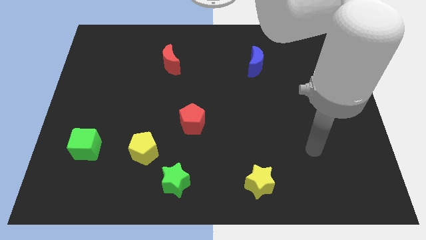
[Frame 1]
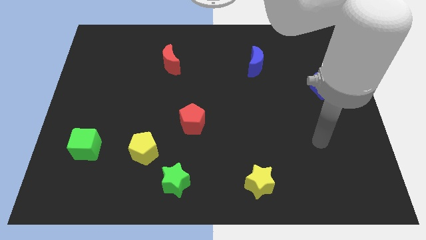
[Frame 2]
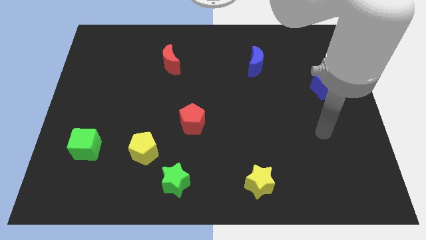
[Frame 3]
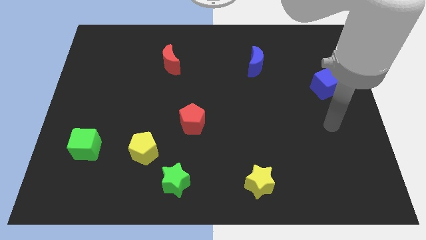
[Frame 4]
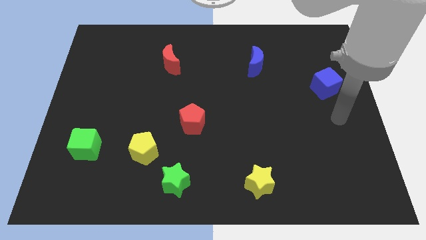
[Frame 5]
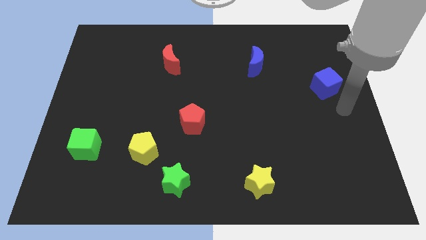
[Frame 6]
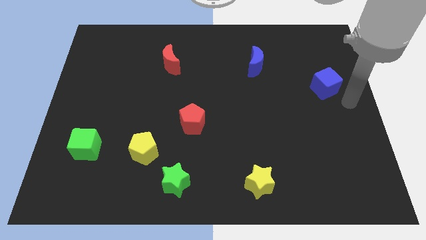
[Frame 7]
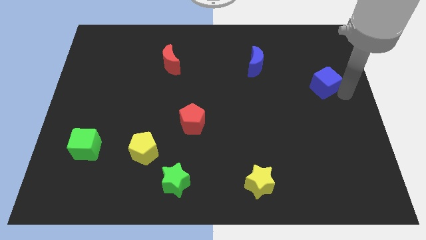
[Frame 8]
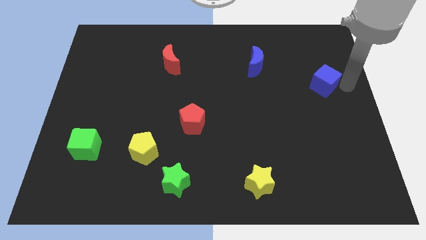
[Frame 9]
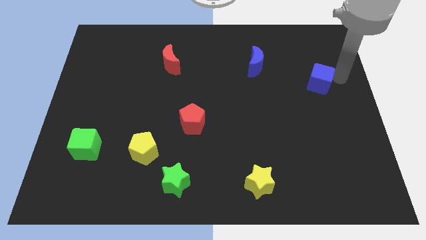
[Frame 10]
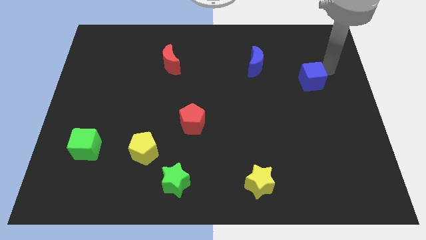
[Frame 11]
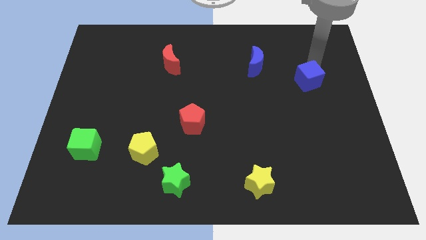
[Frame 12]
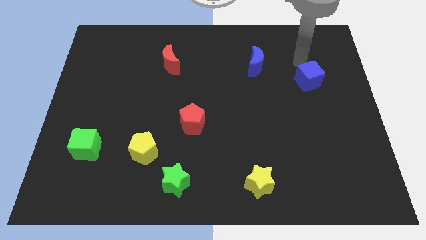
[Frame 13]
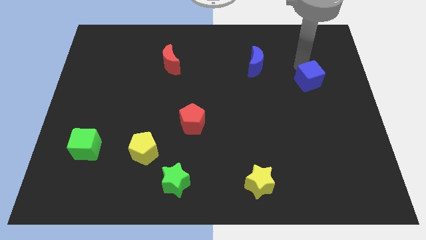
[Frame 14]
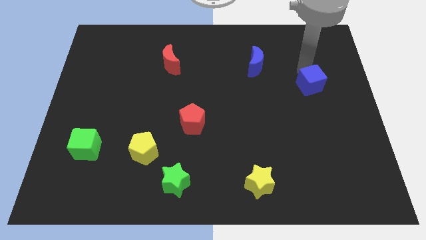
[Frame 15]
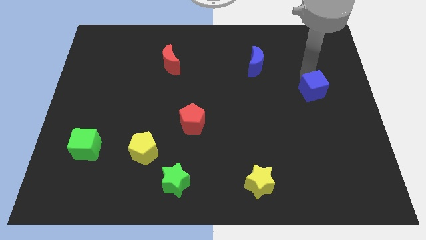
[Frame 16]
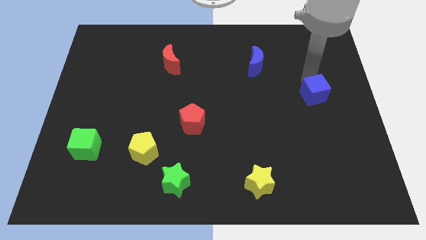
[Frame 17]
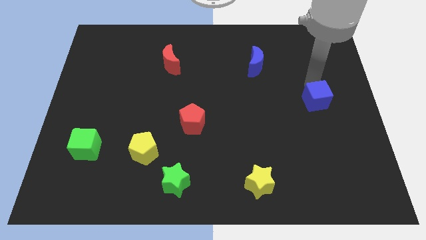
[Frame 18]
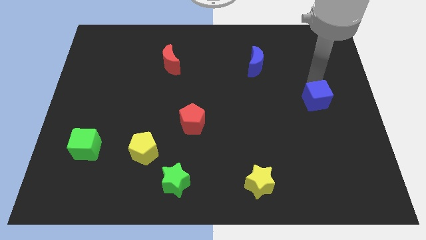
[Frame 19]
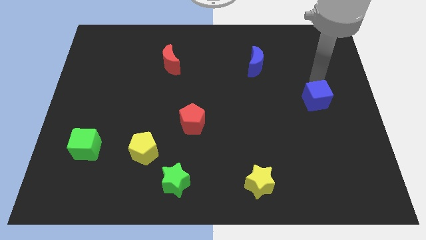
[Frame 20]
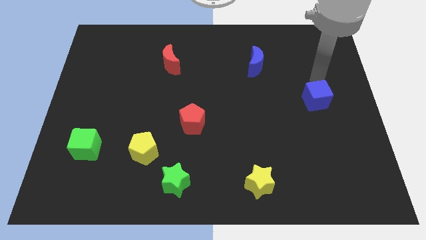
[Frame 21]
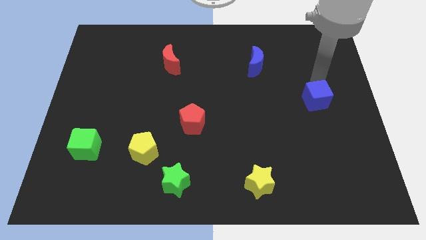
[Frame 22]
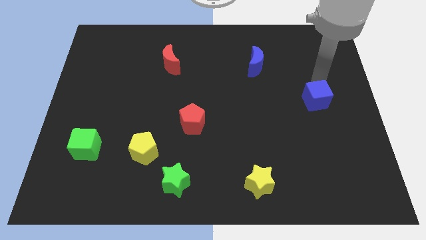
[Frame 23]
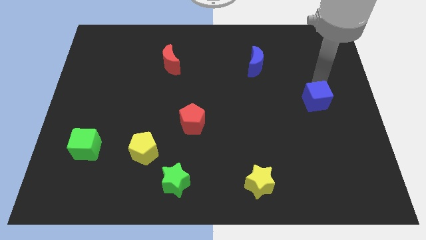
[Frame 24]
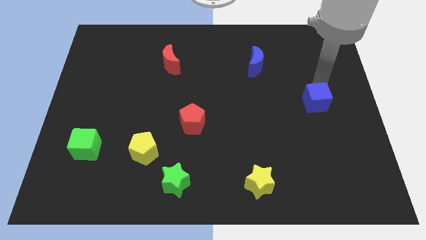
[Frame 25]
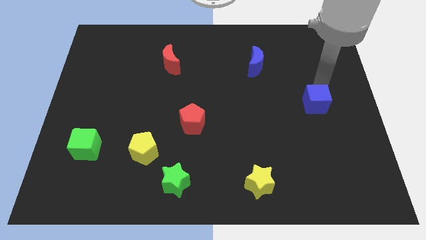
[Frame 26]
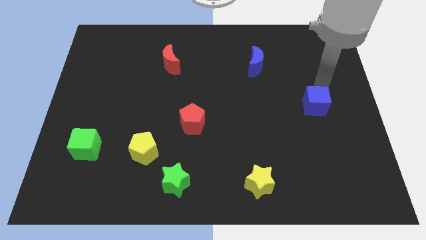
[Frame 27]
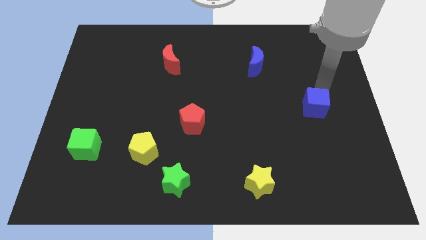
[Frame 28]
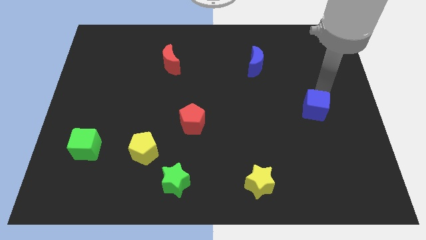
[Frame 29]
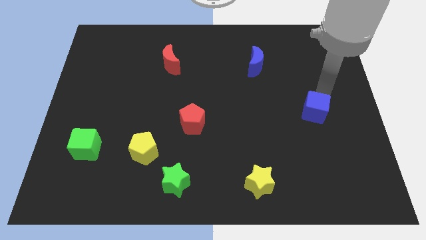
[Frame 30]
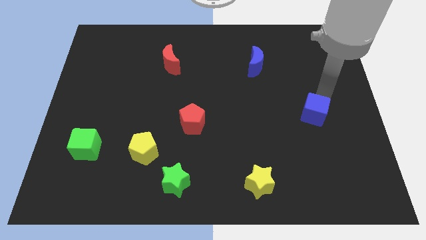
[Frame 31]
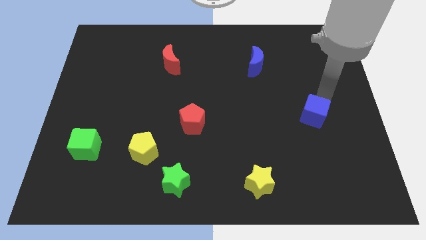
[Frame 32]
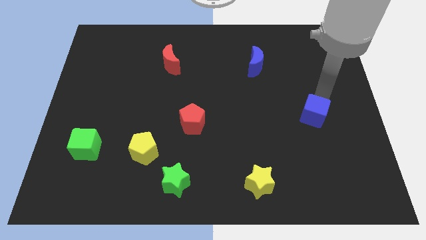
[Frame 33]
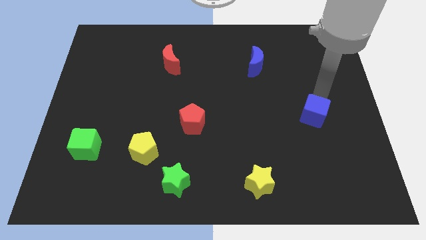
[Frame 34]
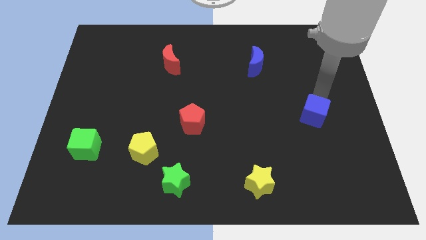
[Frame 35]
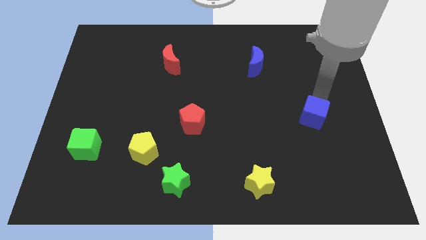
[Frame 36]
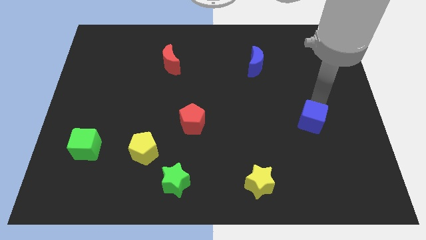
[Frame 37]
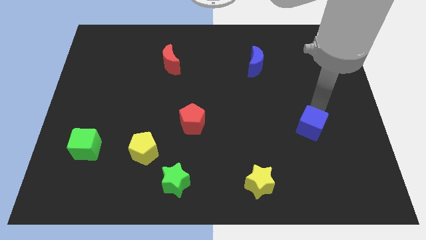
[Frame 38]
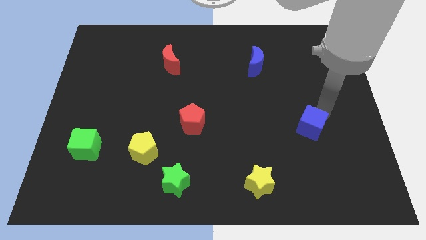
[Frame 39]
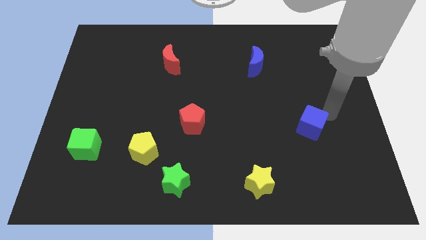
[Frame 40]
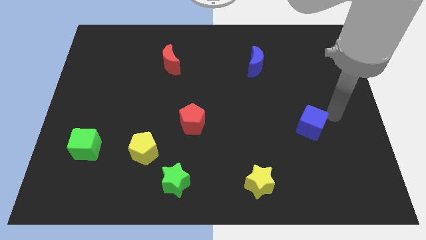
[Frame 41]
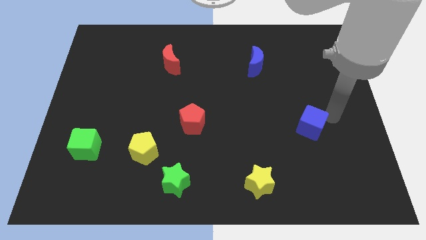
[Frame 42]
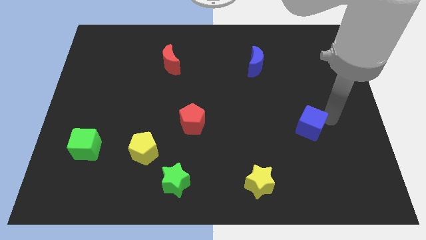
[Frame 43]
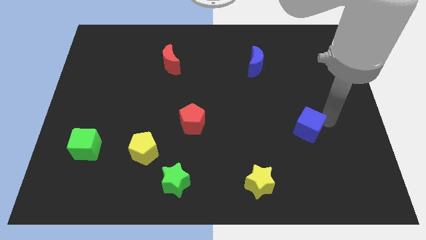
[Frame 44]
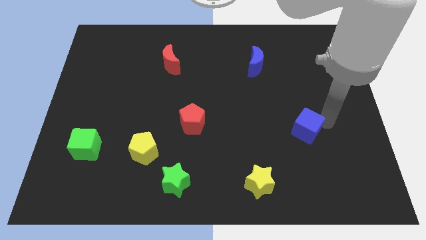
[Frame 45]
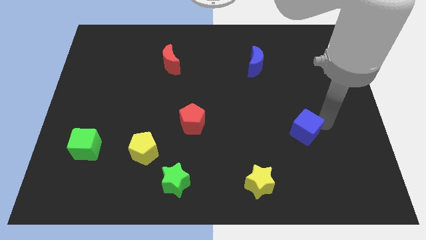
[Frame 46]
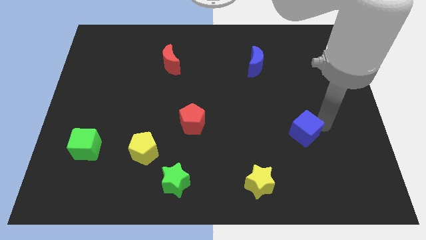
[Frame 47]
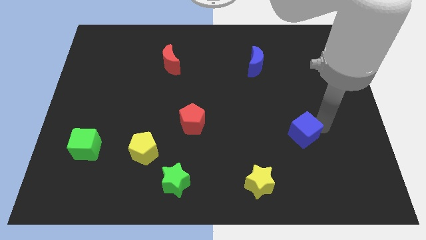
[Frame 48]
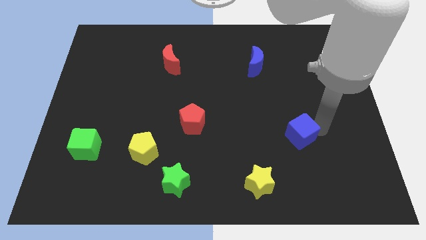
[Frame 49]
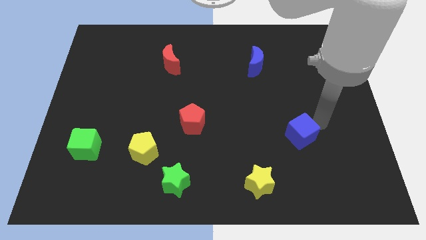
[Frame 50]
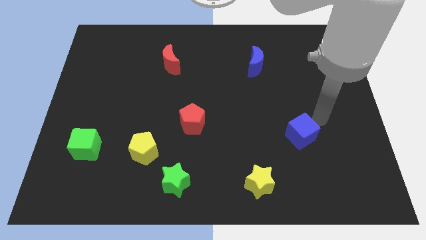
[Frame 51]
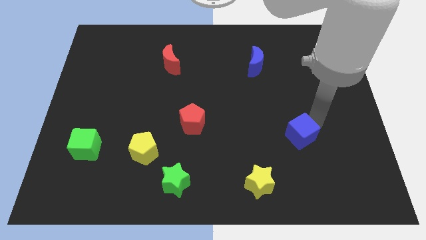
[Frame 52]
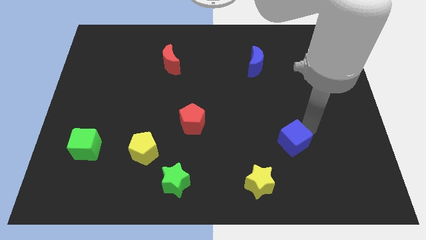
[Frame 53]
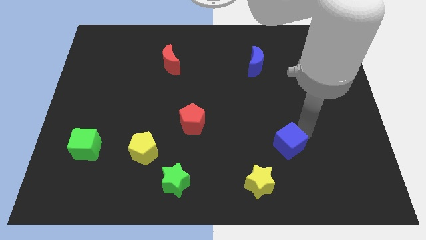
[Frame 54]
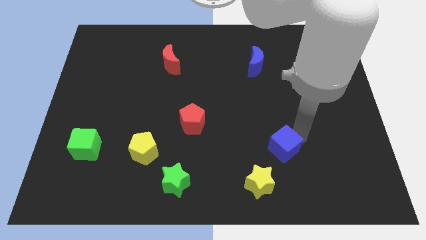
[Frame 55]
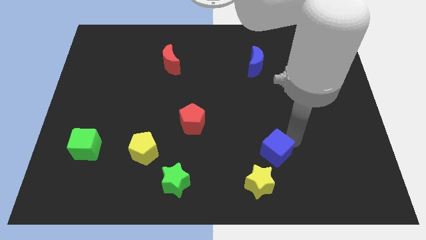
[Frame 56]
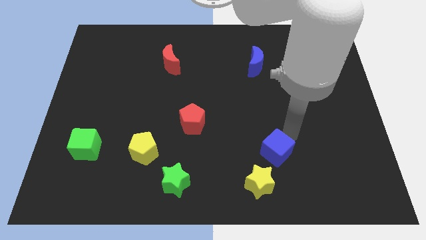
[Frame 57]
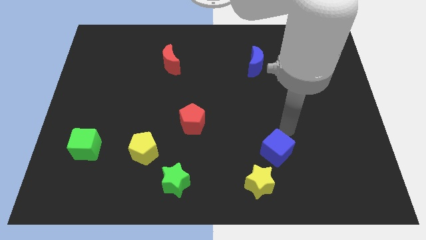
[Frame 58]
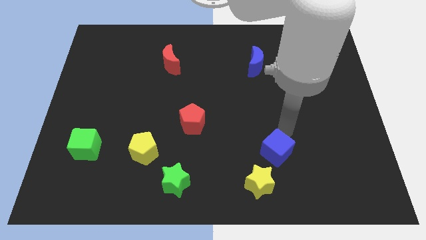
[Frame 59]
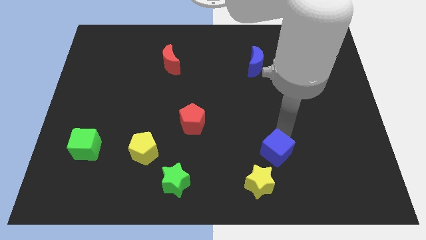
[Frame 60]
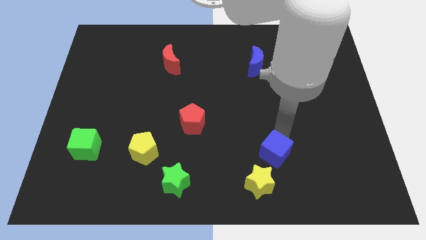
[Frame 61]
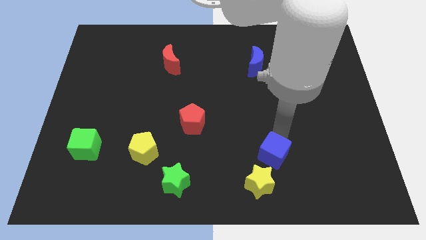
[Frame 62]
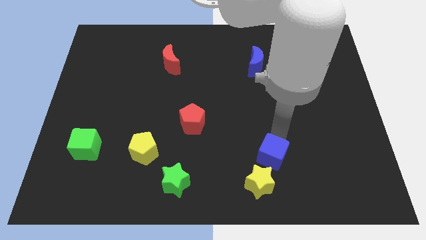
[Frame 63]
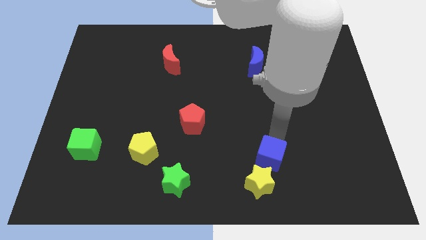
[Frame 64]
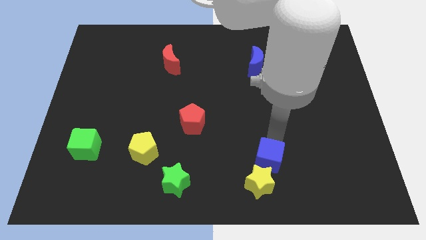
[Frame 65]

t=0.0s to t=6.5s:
push the blue cube close to the yellow star

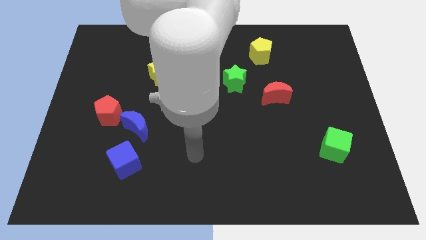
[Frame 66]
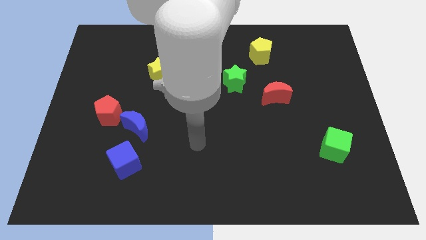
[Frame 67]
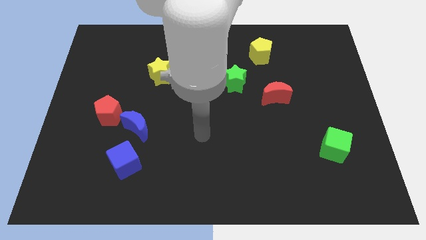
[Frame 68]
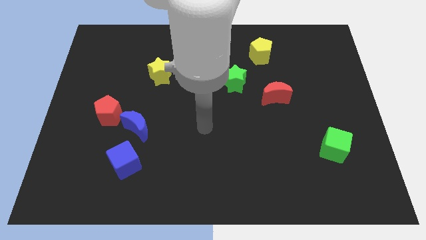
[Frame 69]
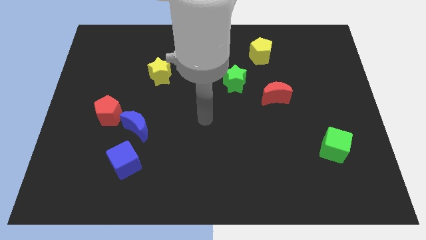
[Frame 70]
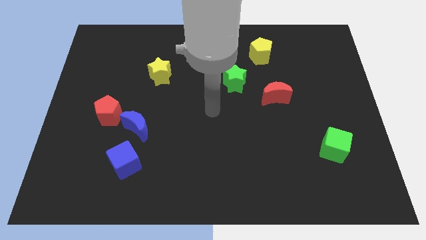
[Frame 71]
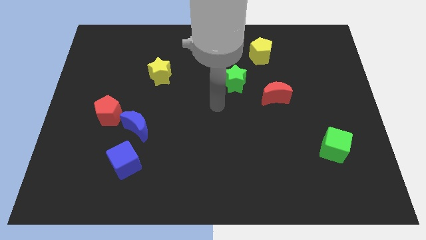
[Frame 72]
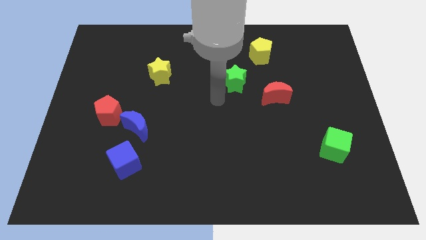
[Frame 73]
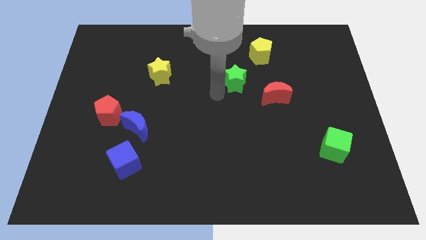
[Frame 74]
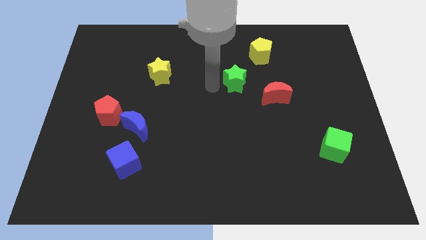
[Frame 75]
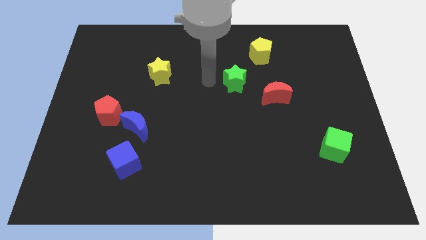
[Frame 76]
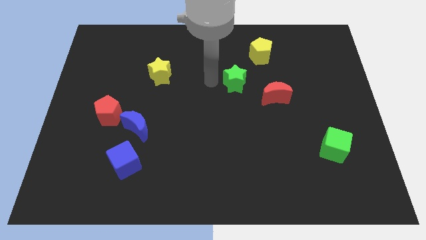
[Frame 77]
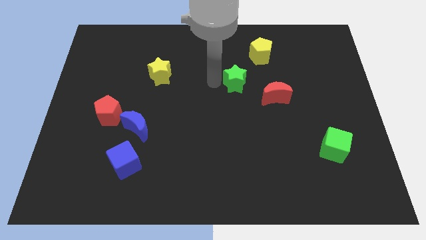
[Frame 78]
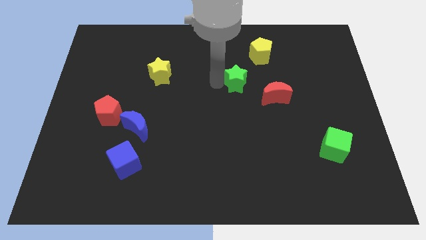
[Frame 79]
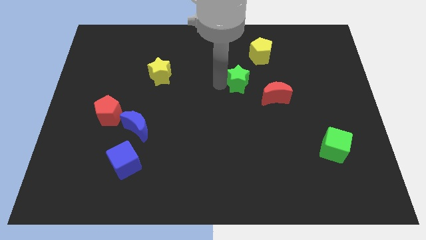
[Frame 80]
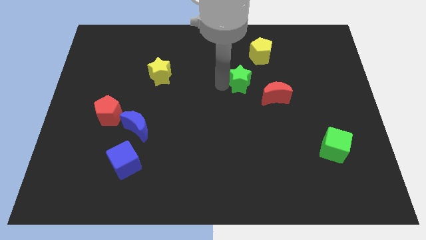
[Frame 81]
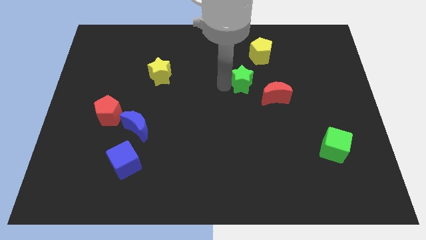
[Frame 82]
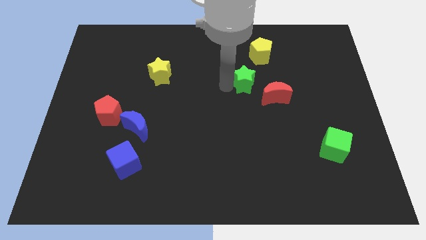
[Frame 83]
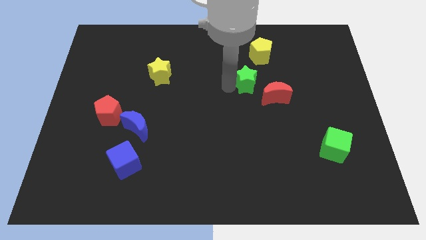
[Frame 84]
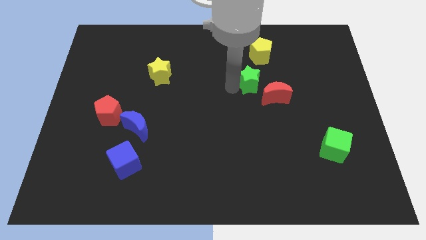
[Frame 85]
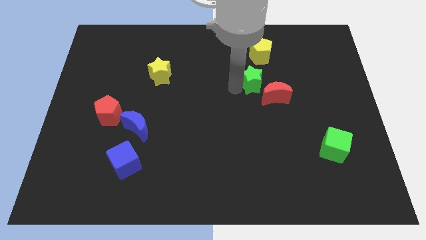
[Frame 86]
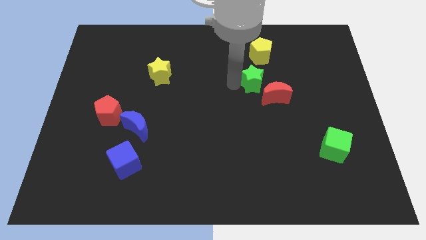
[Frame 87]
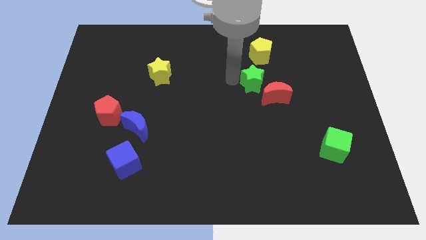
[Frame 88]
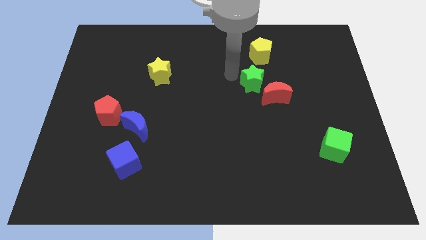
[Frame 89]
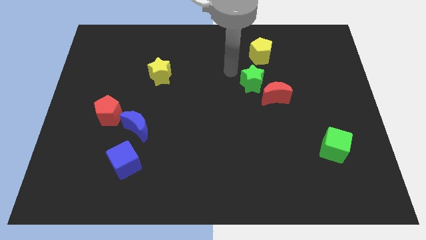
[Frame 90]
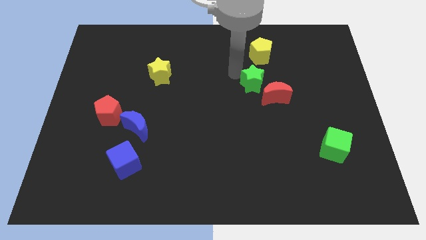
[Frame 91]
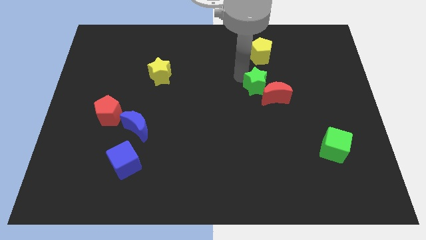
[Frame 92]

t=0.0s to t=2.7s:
move the green star towards the red moon
